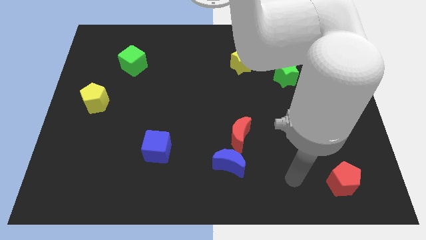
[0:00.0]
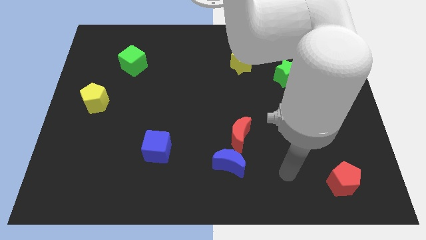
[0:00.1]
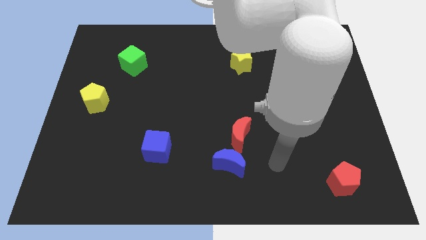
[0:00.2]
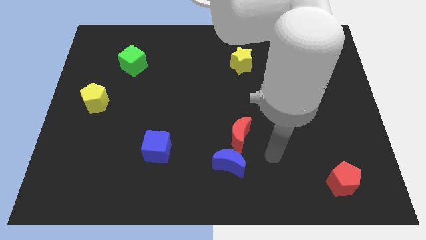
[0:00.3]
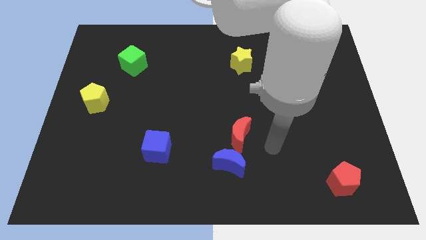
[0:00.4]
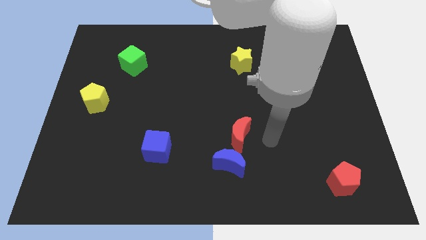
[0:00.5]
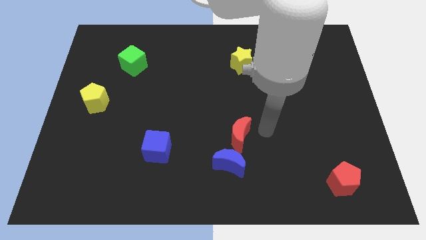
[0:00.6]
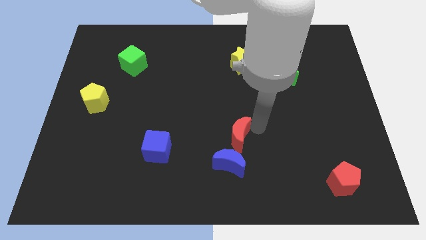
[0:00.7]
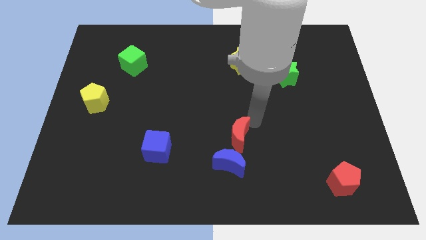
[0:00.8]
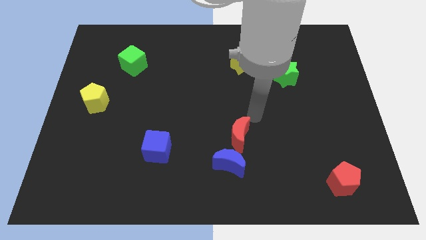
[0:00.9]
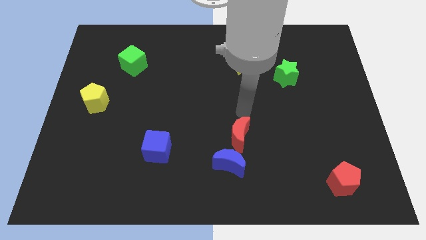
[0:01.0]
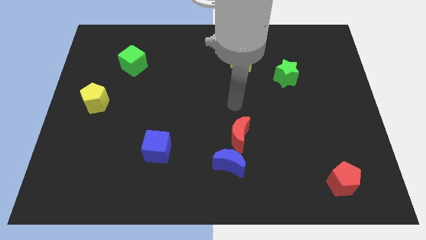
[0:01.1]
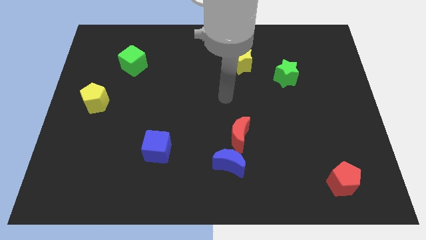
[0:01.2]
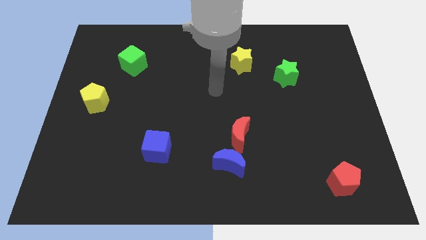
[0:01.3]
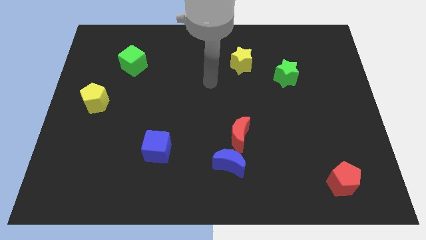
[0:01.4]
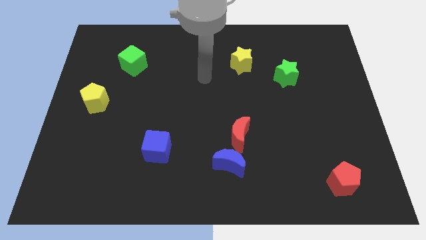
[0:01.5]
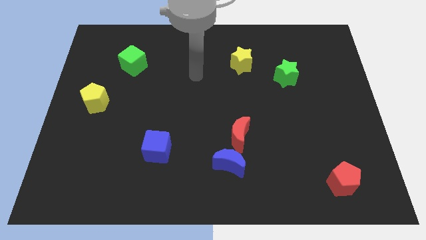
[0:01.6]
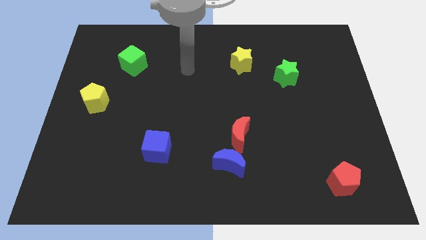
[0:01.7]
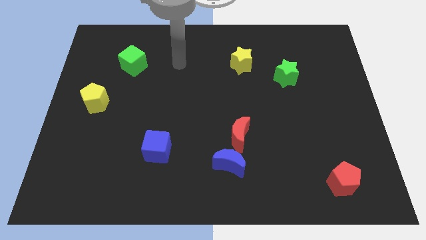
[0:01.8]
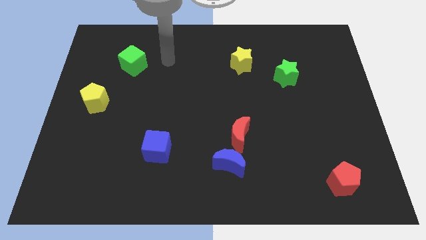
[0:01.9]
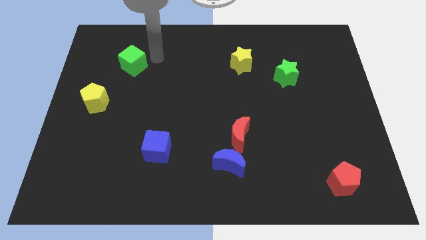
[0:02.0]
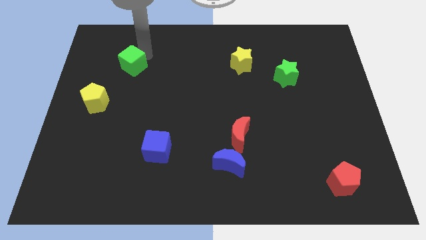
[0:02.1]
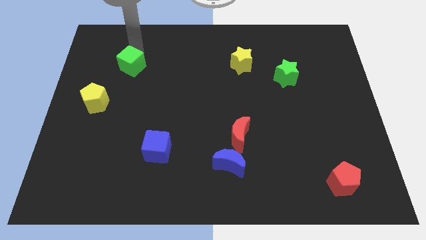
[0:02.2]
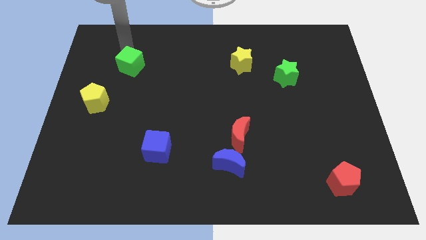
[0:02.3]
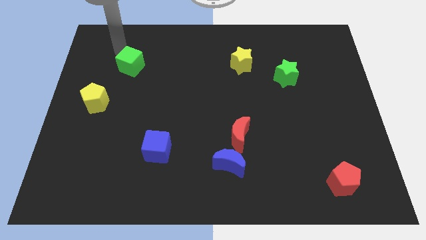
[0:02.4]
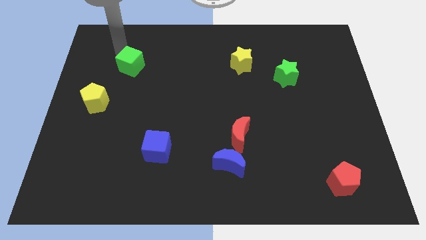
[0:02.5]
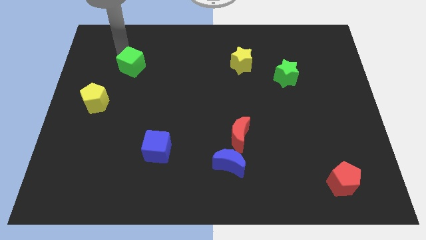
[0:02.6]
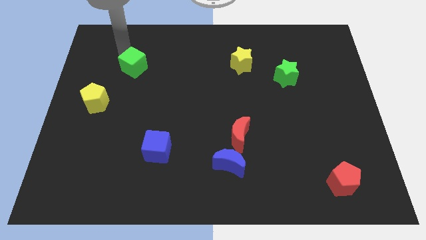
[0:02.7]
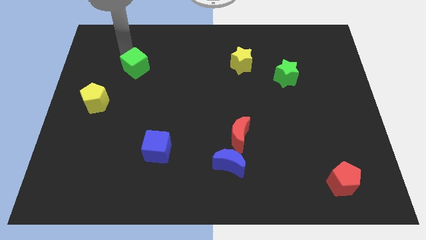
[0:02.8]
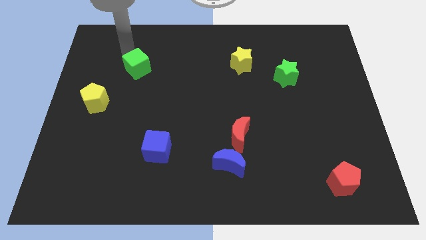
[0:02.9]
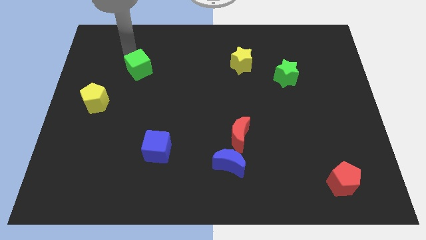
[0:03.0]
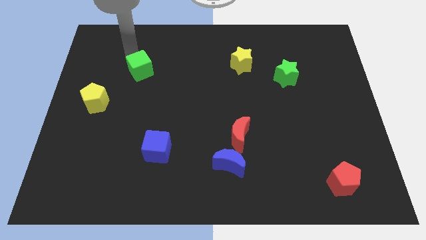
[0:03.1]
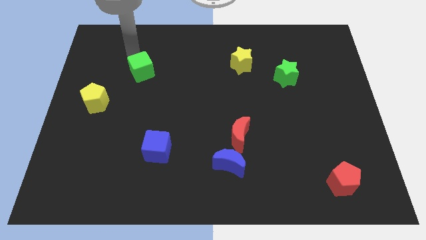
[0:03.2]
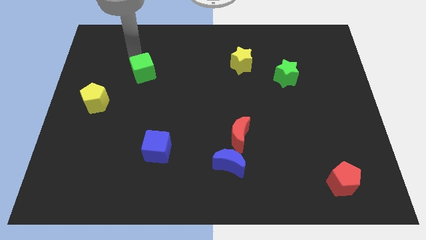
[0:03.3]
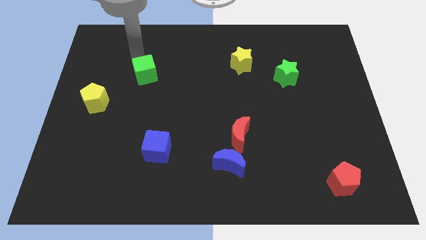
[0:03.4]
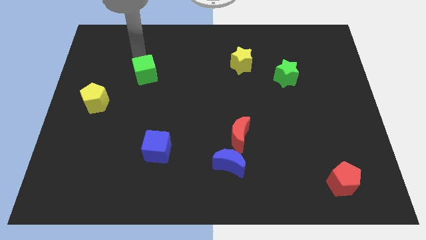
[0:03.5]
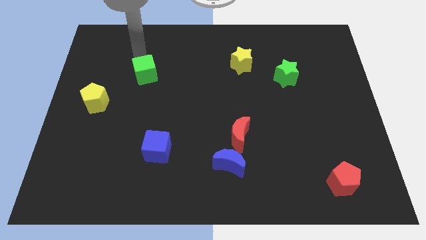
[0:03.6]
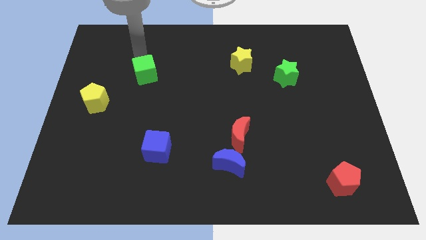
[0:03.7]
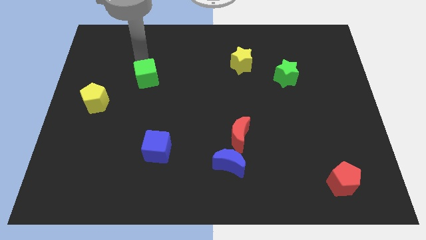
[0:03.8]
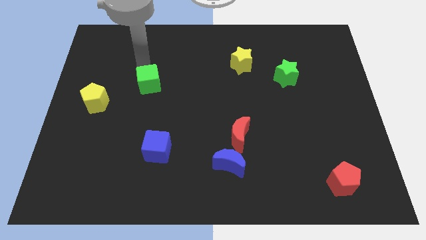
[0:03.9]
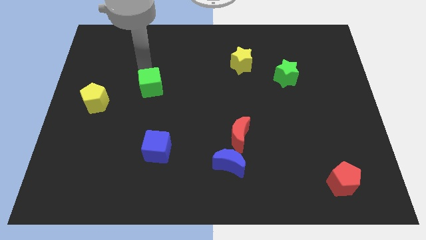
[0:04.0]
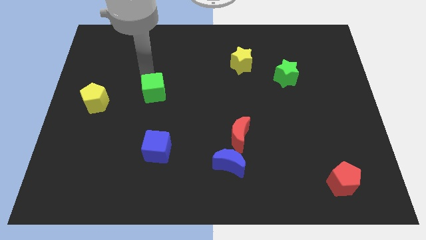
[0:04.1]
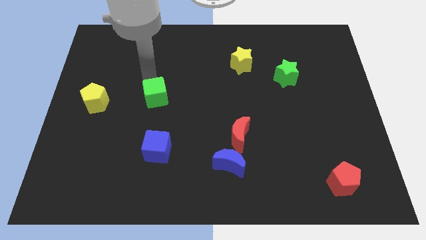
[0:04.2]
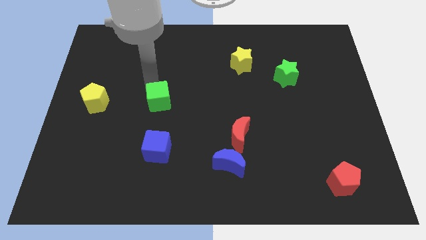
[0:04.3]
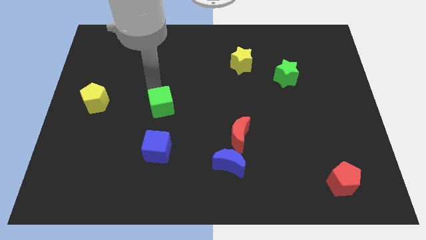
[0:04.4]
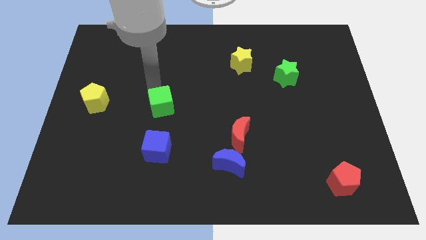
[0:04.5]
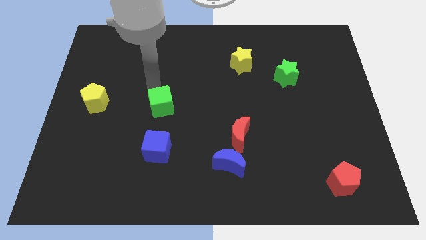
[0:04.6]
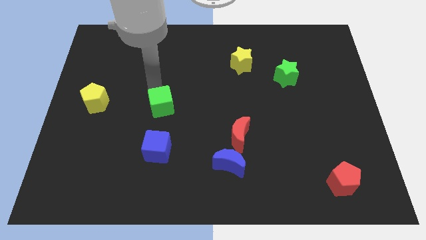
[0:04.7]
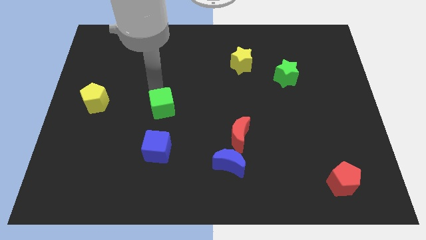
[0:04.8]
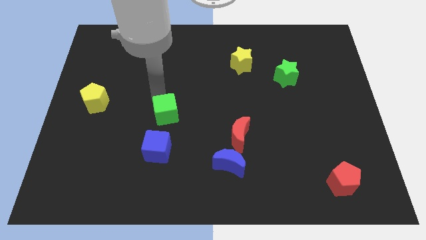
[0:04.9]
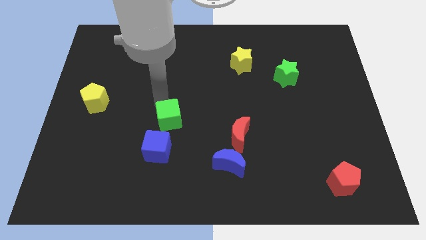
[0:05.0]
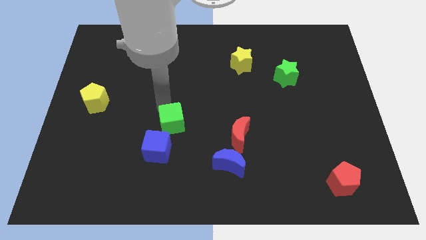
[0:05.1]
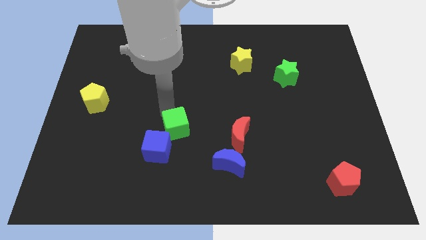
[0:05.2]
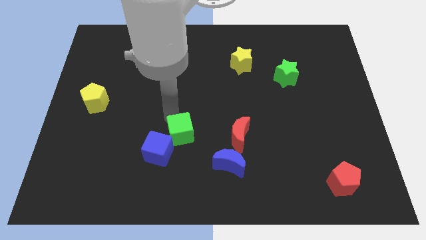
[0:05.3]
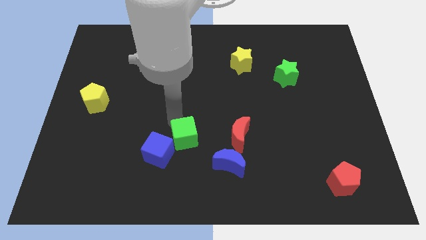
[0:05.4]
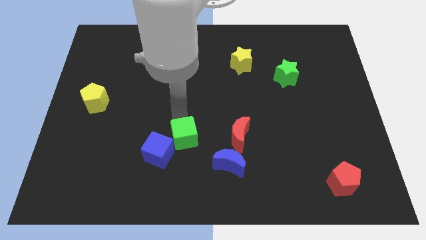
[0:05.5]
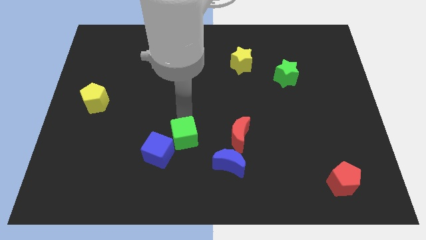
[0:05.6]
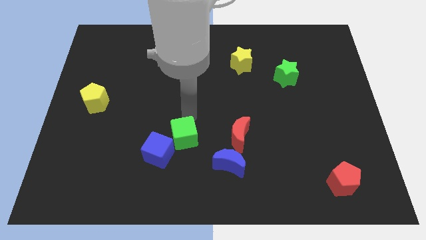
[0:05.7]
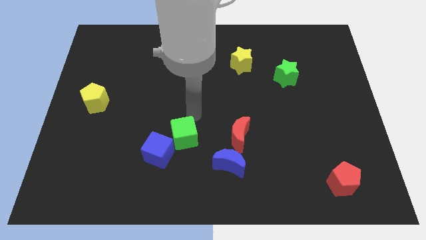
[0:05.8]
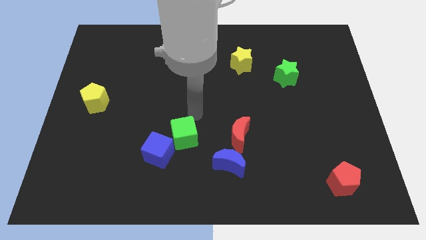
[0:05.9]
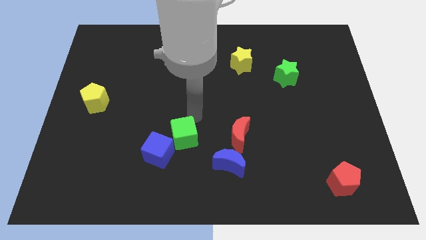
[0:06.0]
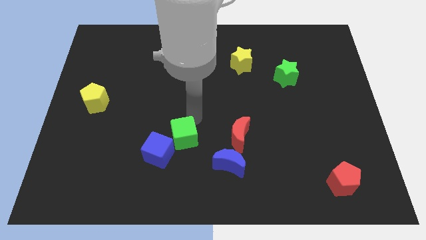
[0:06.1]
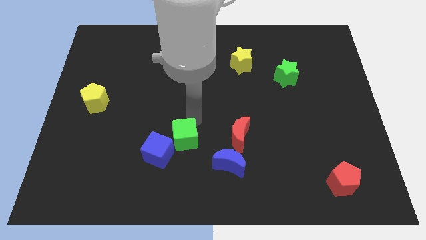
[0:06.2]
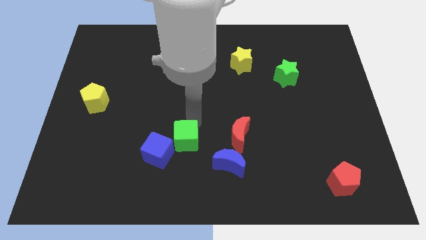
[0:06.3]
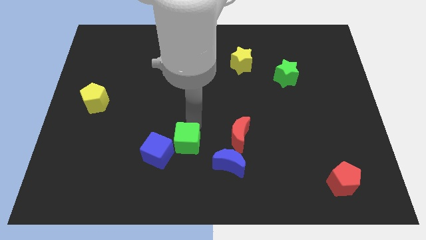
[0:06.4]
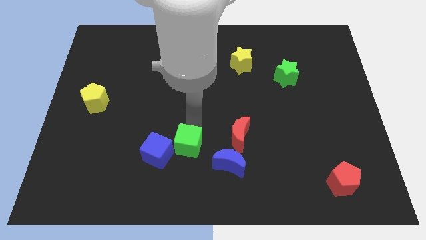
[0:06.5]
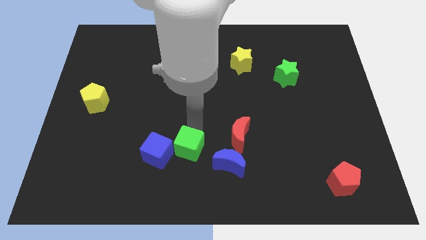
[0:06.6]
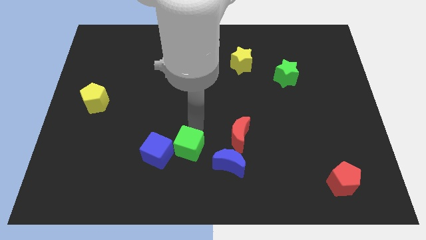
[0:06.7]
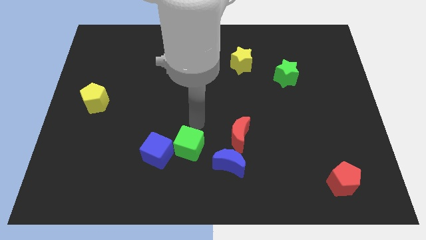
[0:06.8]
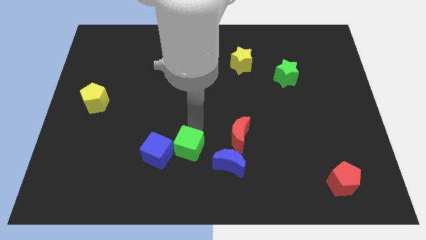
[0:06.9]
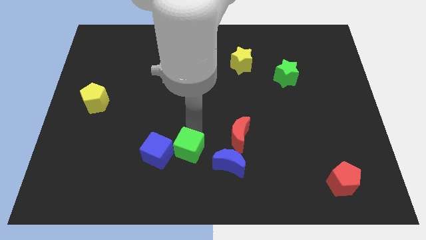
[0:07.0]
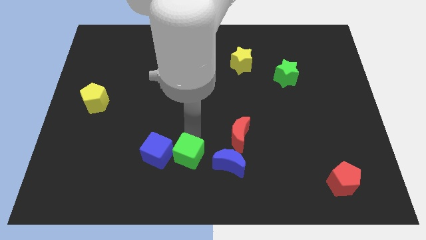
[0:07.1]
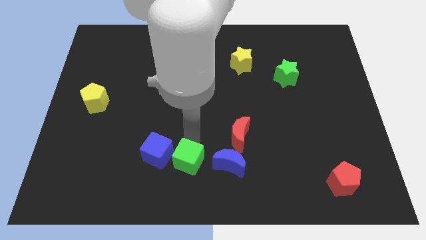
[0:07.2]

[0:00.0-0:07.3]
put the green cube to the bottom side
